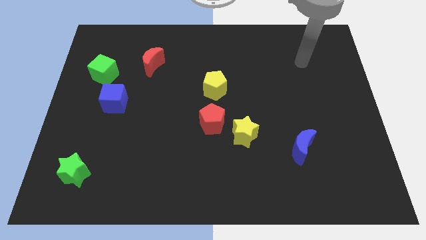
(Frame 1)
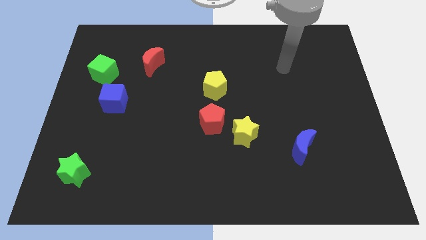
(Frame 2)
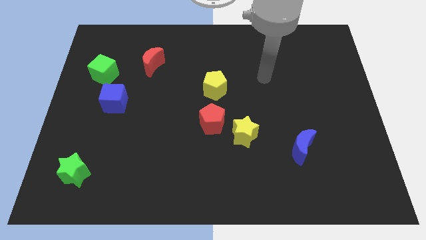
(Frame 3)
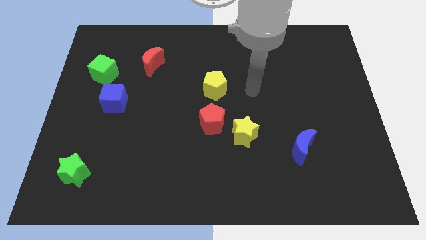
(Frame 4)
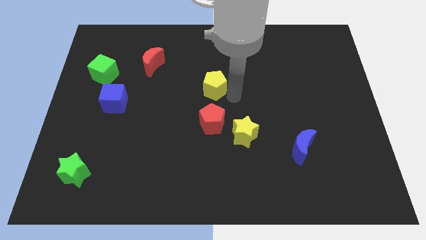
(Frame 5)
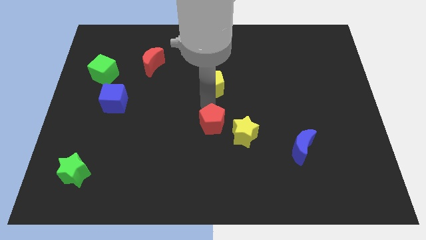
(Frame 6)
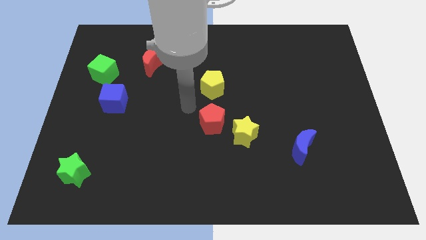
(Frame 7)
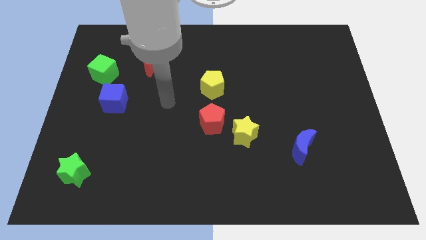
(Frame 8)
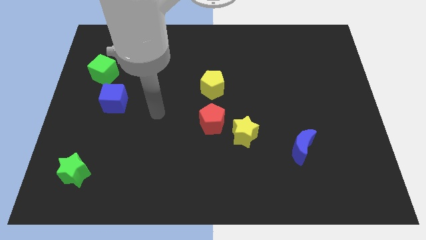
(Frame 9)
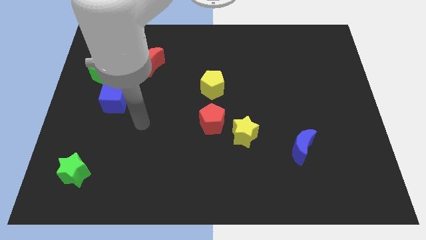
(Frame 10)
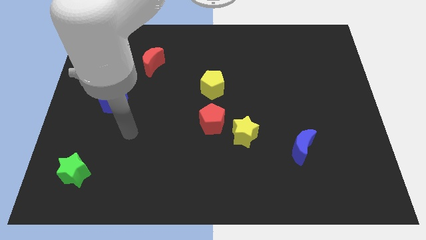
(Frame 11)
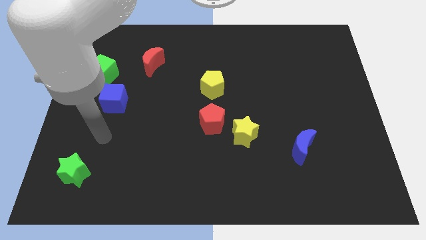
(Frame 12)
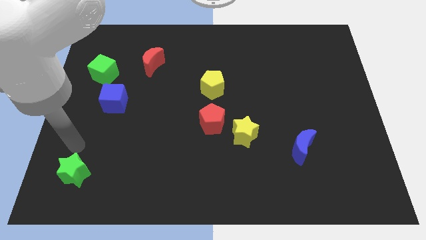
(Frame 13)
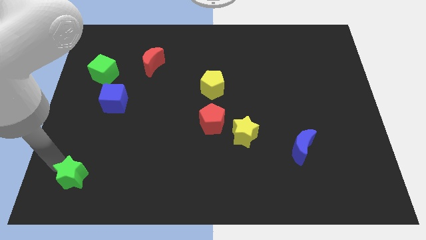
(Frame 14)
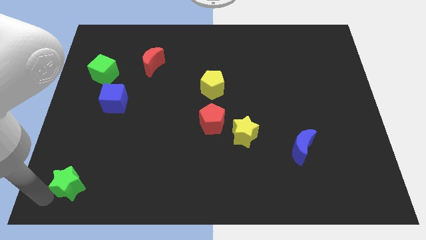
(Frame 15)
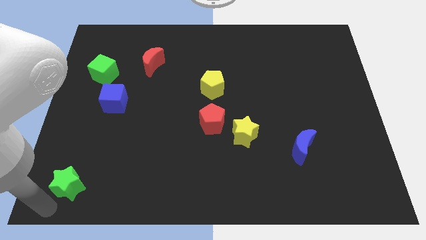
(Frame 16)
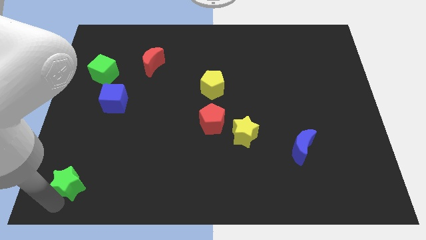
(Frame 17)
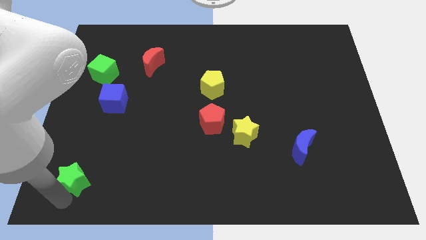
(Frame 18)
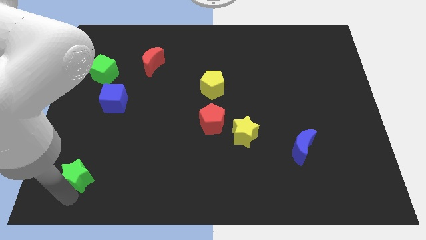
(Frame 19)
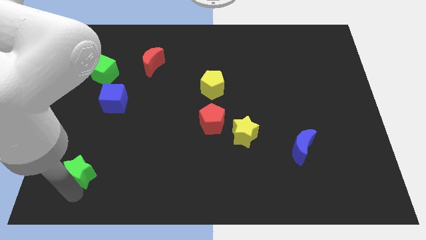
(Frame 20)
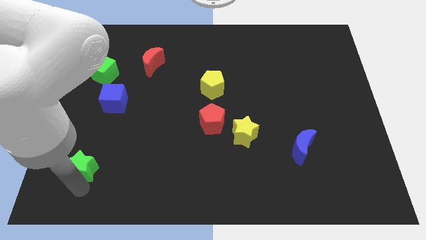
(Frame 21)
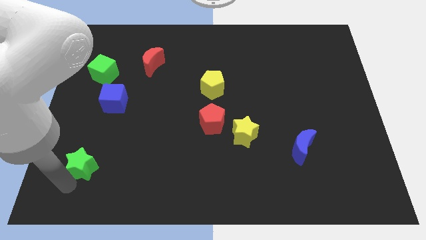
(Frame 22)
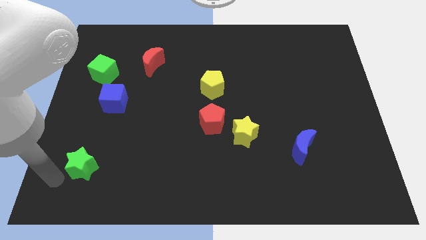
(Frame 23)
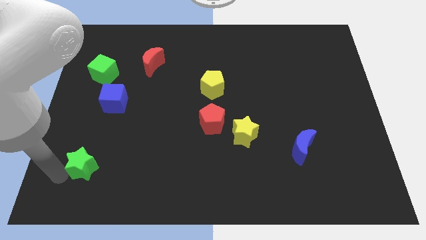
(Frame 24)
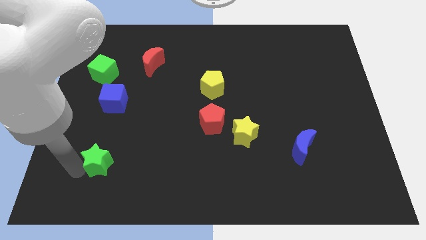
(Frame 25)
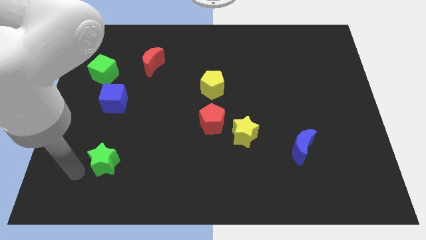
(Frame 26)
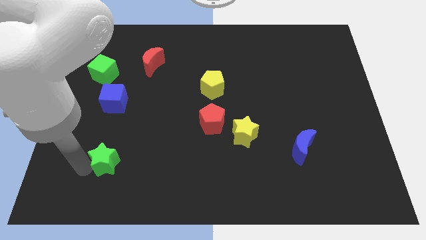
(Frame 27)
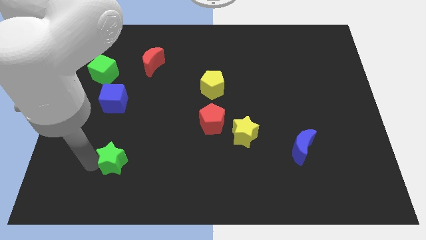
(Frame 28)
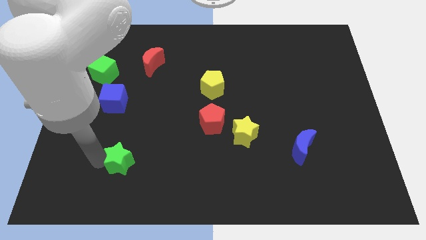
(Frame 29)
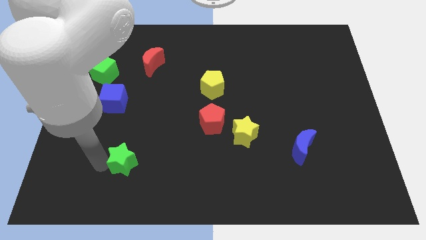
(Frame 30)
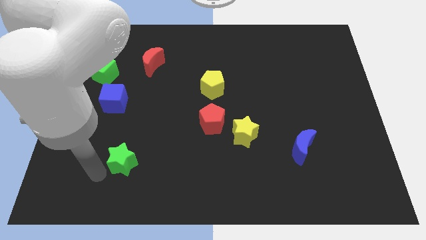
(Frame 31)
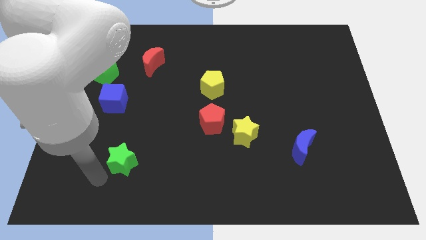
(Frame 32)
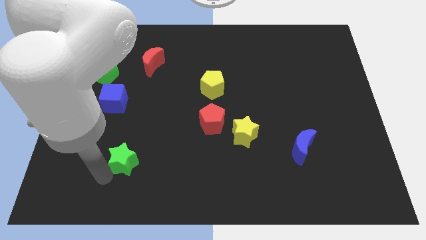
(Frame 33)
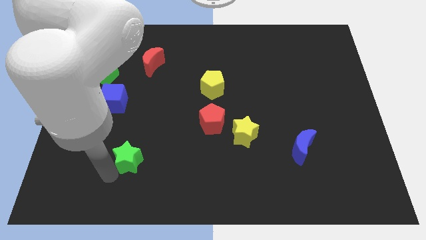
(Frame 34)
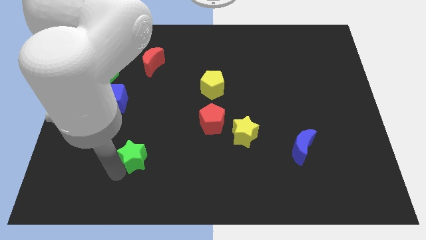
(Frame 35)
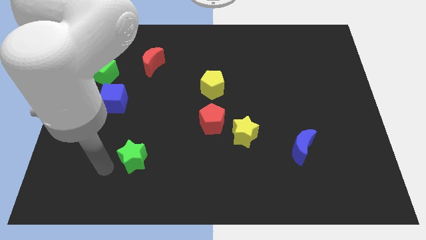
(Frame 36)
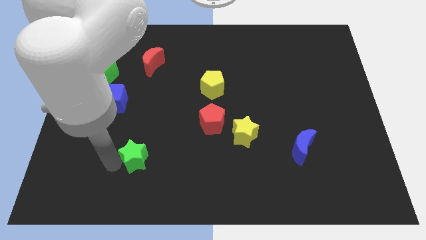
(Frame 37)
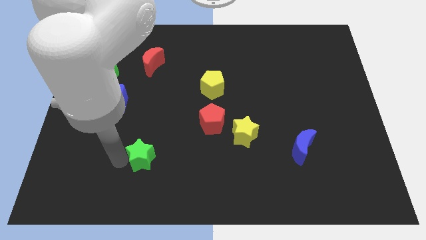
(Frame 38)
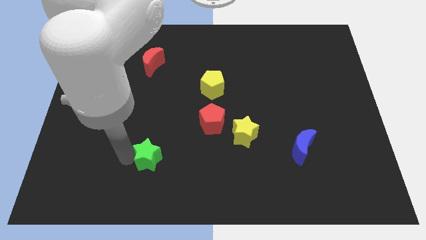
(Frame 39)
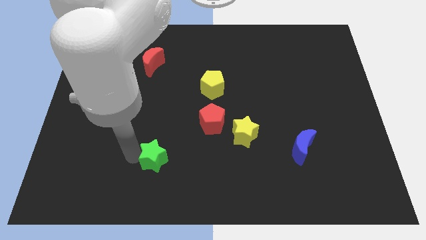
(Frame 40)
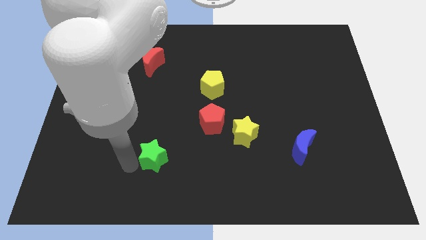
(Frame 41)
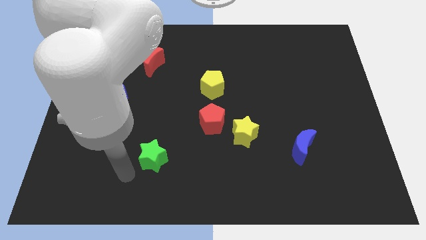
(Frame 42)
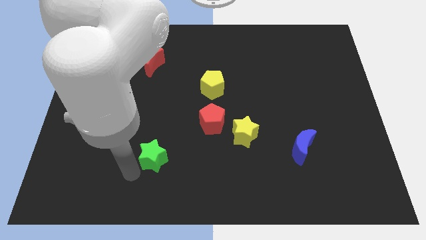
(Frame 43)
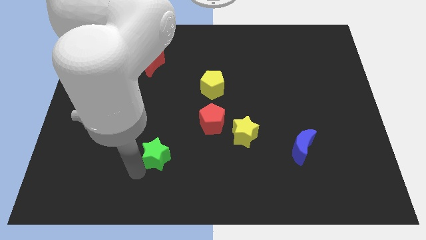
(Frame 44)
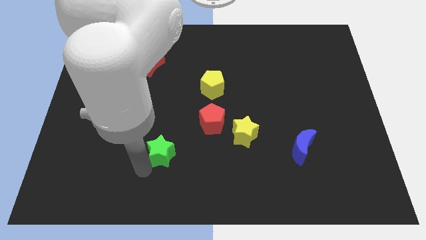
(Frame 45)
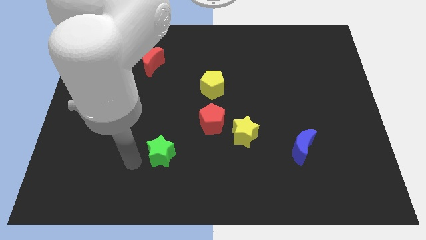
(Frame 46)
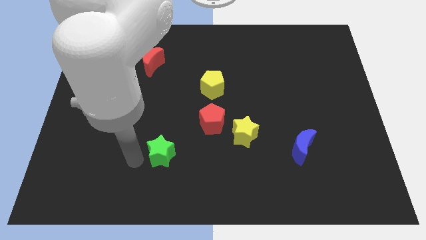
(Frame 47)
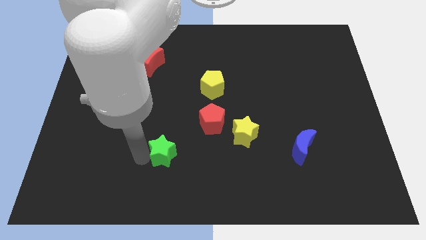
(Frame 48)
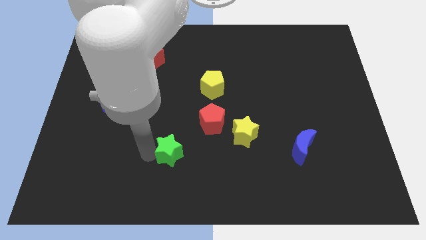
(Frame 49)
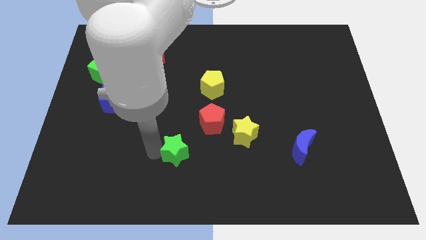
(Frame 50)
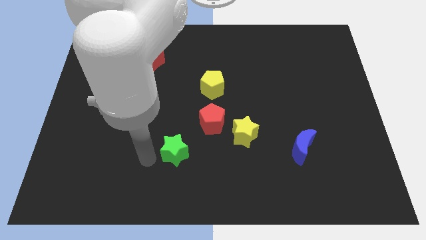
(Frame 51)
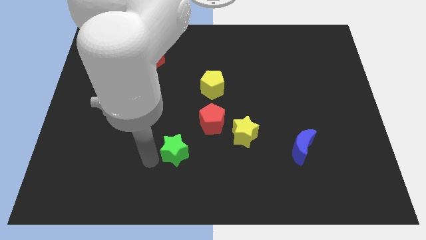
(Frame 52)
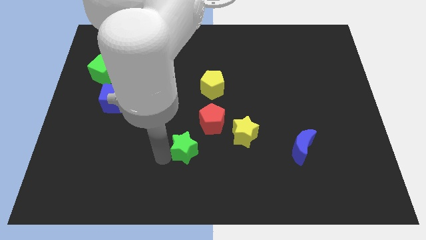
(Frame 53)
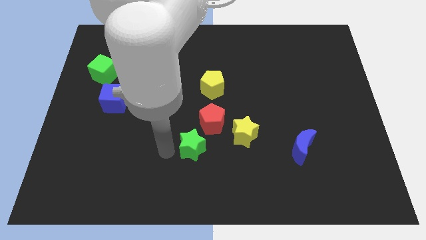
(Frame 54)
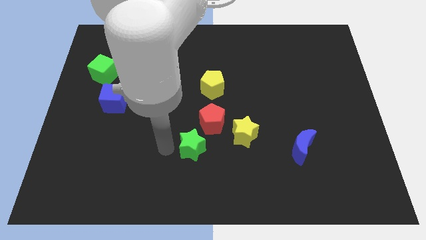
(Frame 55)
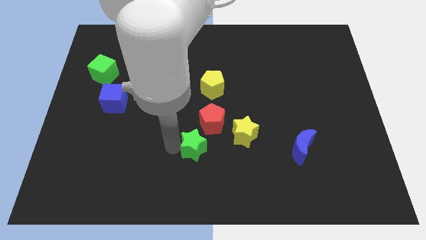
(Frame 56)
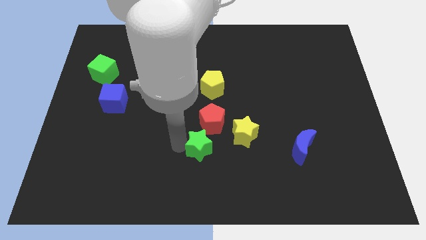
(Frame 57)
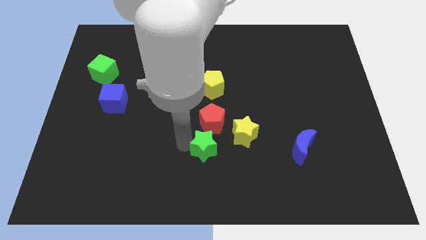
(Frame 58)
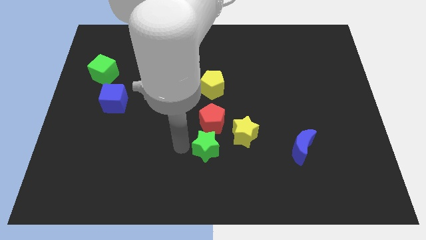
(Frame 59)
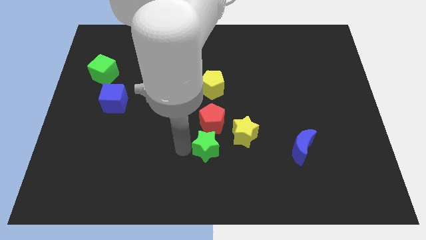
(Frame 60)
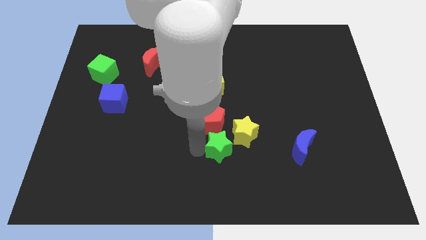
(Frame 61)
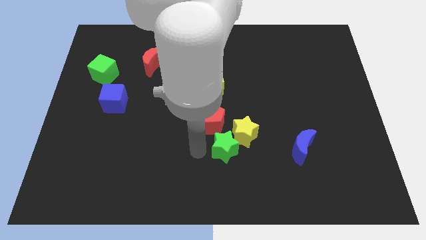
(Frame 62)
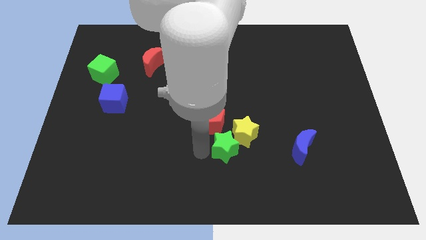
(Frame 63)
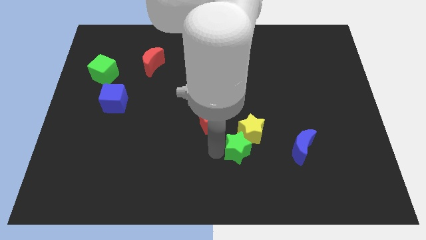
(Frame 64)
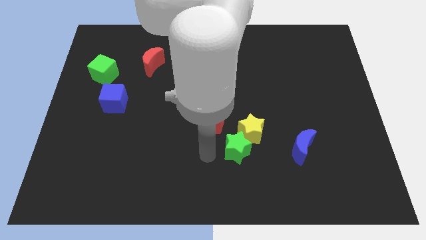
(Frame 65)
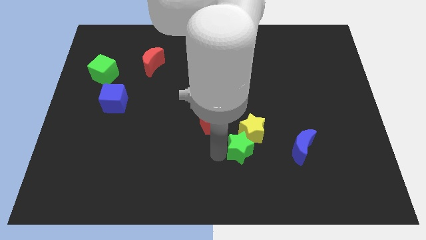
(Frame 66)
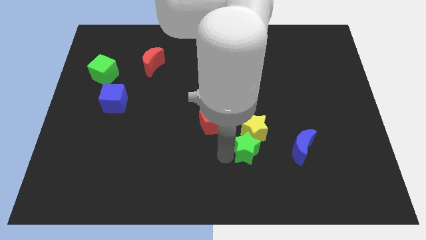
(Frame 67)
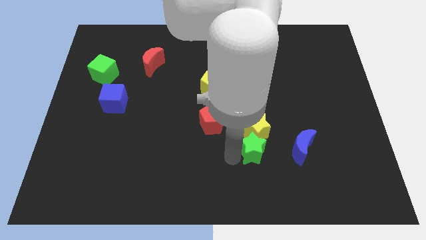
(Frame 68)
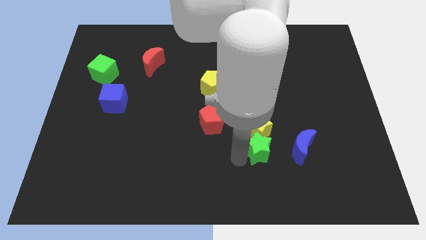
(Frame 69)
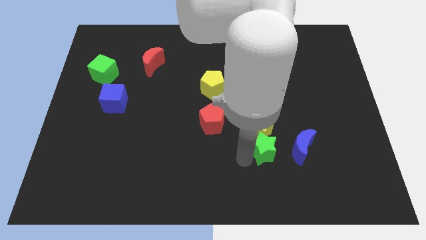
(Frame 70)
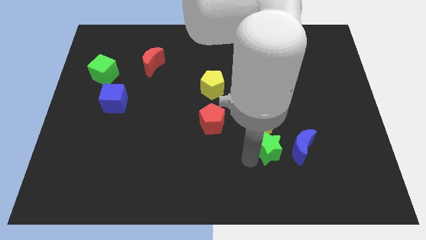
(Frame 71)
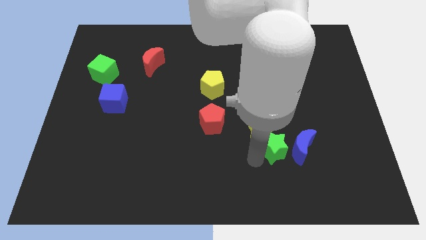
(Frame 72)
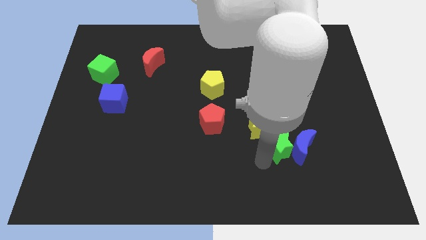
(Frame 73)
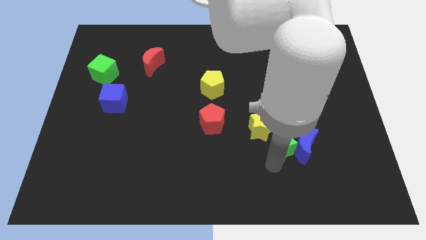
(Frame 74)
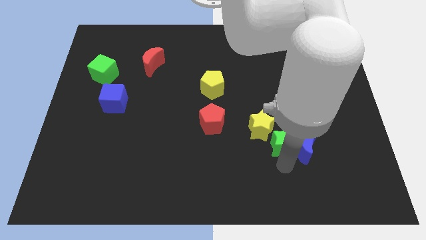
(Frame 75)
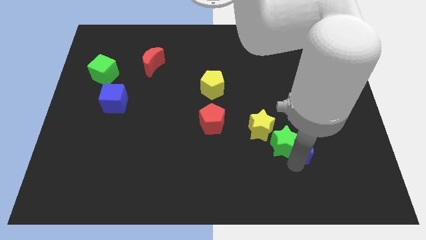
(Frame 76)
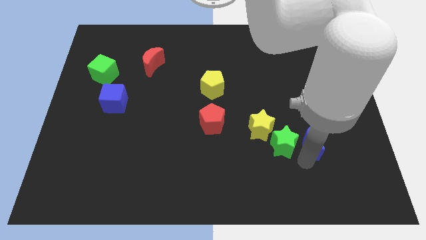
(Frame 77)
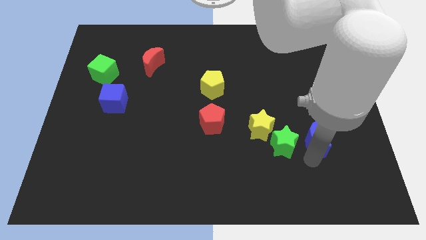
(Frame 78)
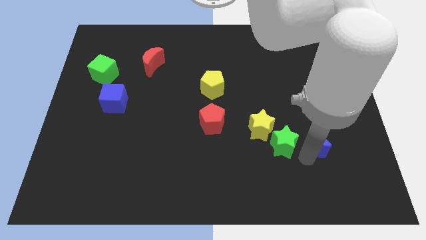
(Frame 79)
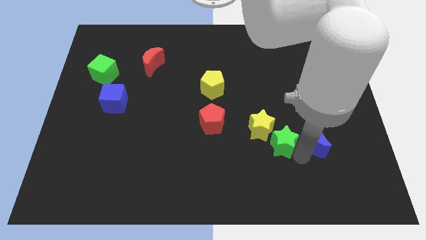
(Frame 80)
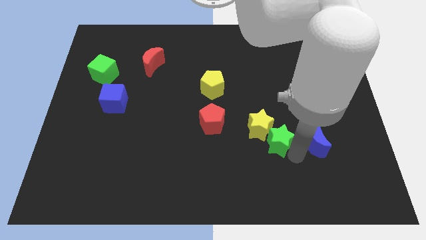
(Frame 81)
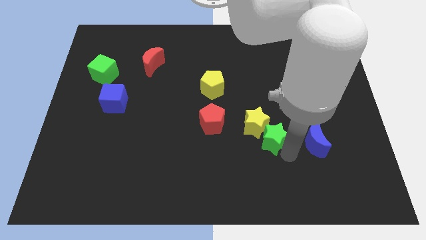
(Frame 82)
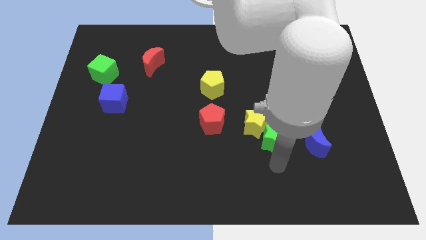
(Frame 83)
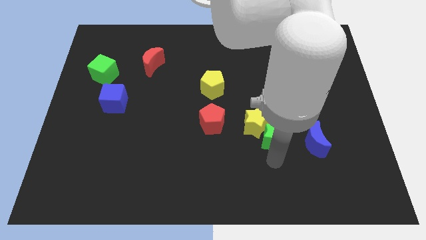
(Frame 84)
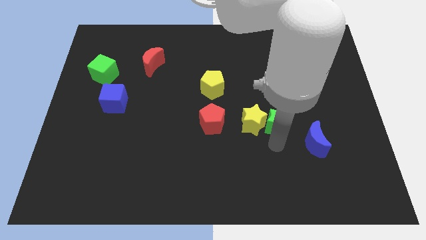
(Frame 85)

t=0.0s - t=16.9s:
push the green star diagonally up and to the right of the yellow star
